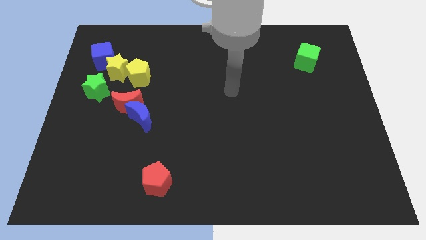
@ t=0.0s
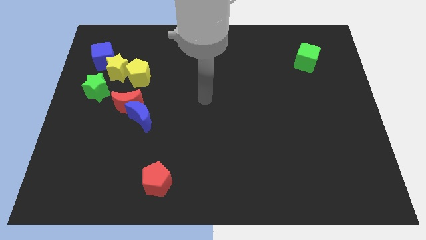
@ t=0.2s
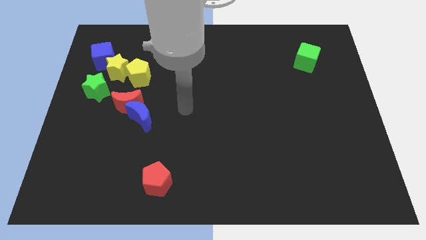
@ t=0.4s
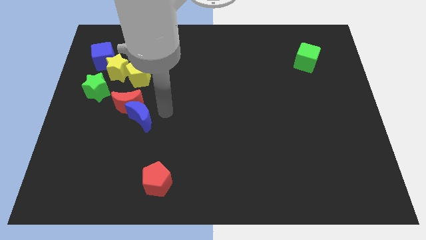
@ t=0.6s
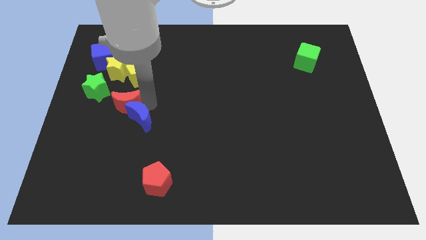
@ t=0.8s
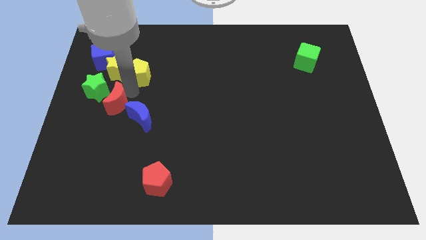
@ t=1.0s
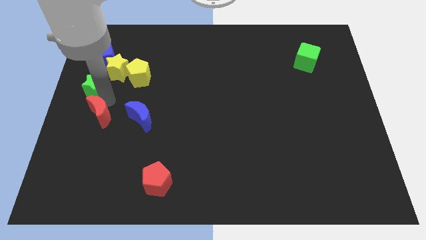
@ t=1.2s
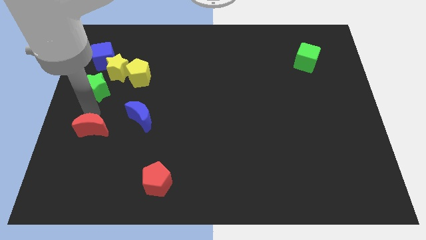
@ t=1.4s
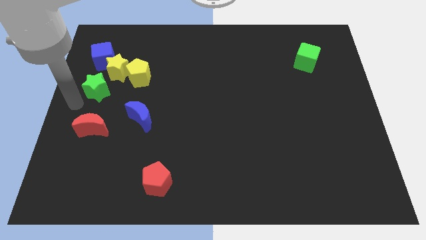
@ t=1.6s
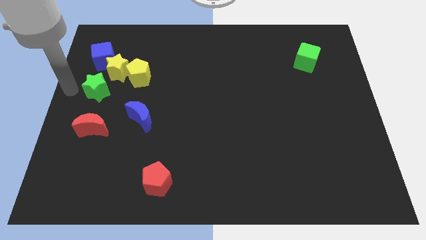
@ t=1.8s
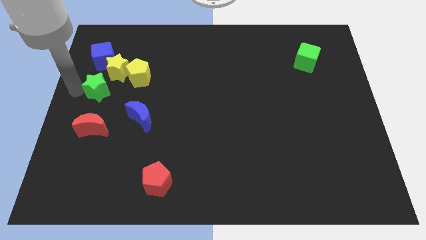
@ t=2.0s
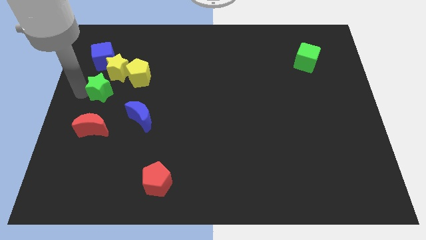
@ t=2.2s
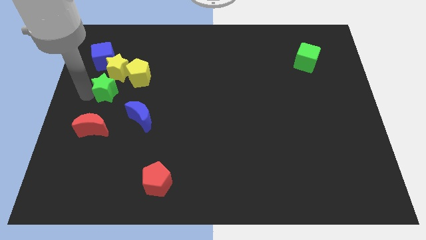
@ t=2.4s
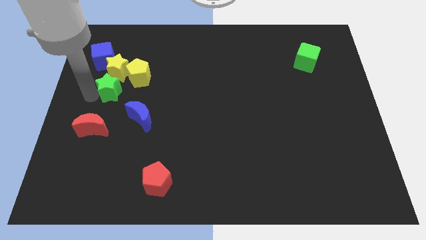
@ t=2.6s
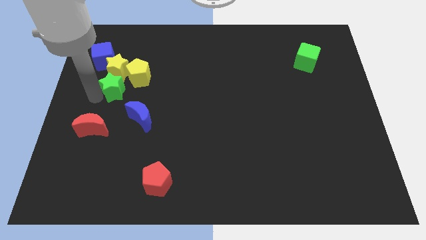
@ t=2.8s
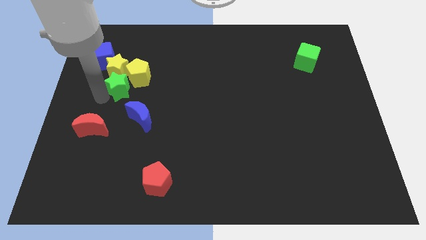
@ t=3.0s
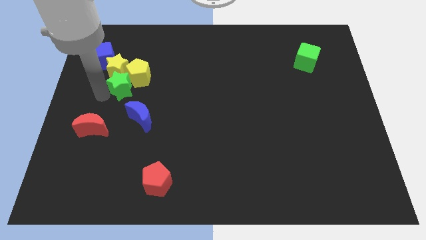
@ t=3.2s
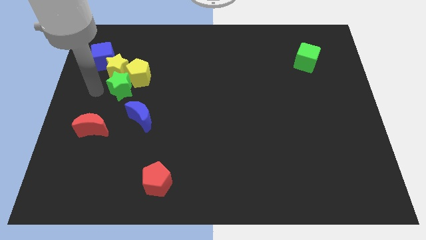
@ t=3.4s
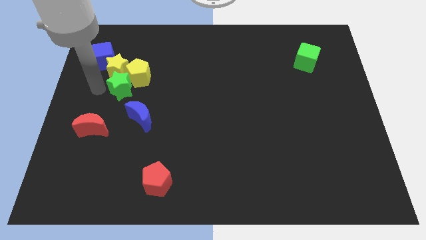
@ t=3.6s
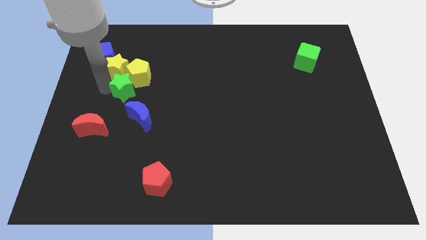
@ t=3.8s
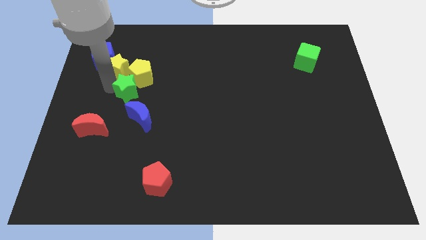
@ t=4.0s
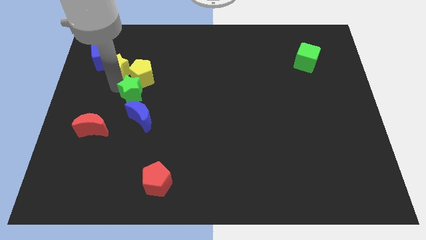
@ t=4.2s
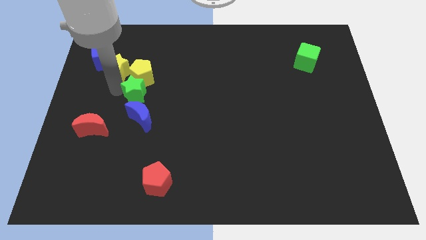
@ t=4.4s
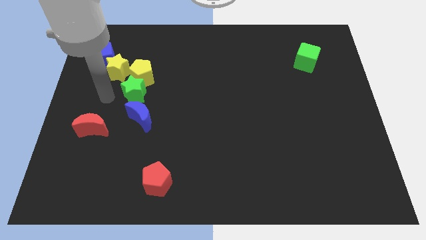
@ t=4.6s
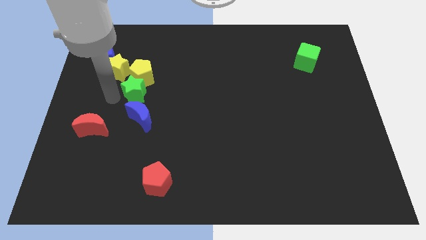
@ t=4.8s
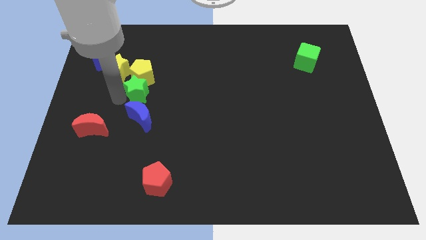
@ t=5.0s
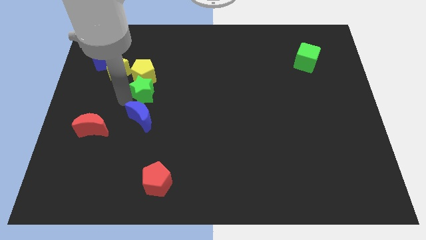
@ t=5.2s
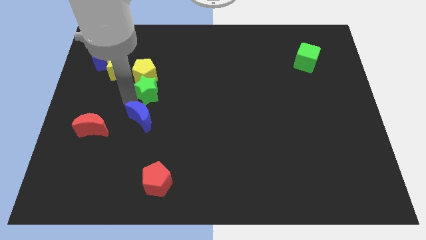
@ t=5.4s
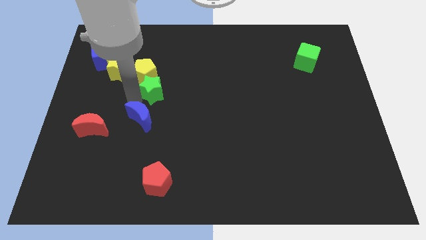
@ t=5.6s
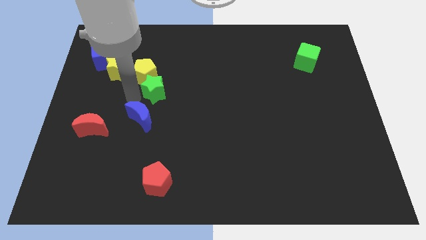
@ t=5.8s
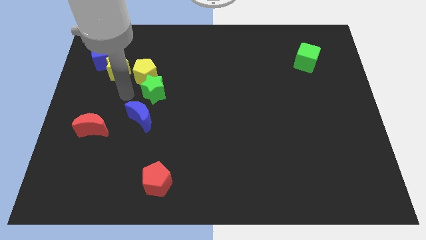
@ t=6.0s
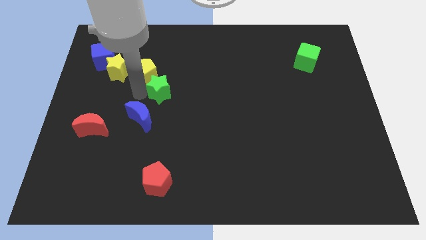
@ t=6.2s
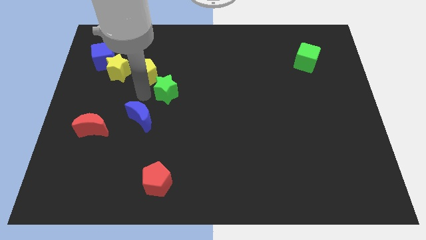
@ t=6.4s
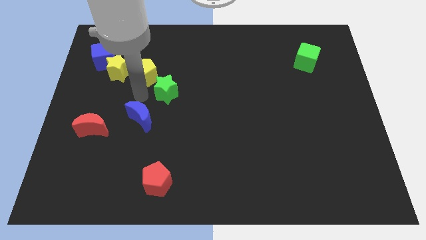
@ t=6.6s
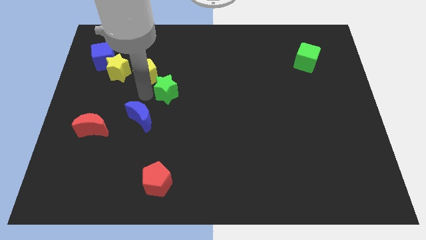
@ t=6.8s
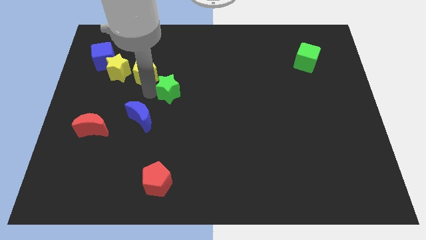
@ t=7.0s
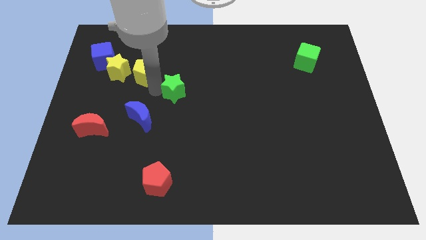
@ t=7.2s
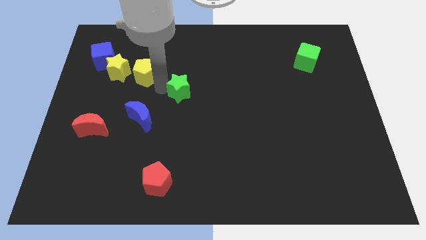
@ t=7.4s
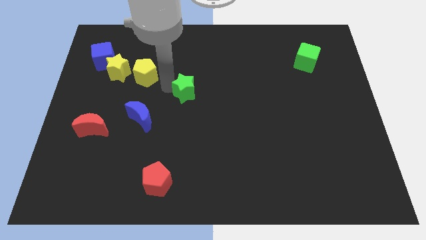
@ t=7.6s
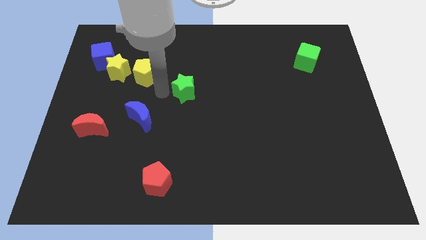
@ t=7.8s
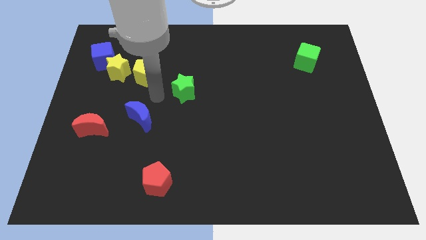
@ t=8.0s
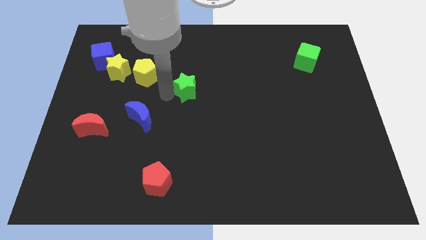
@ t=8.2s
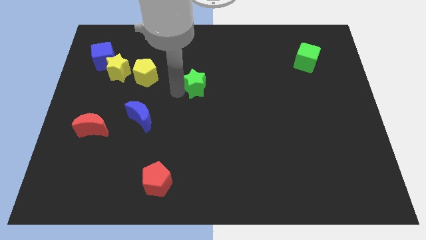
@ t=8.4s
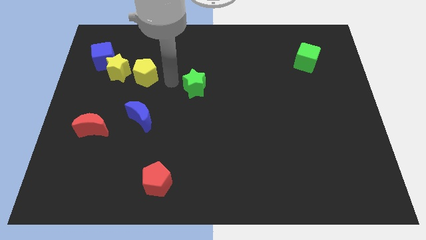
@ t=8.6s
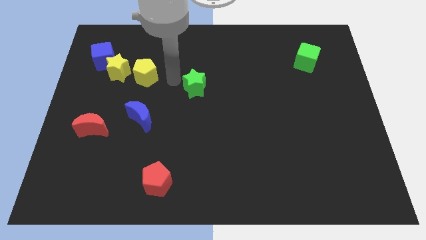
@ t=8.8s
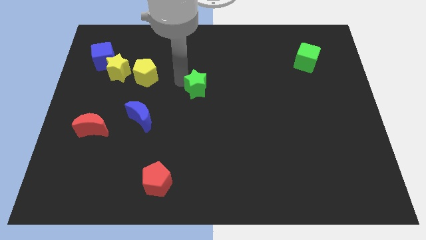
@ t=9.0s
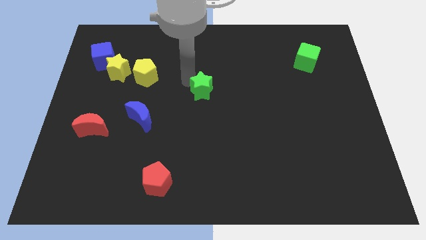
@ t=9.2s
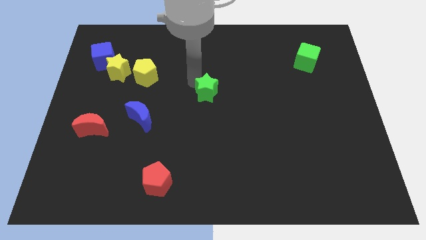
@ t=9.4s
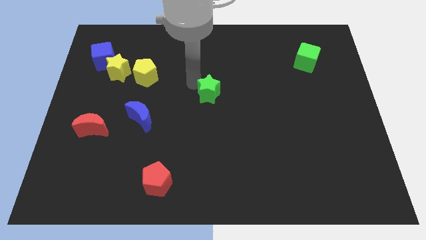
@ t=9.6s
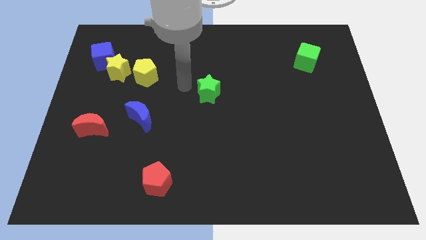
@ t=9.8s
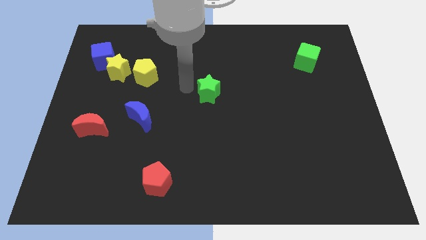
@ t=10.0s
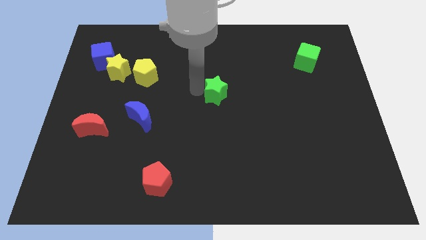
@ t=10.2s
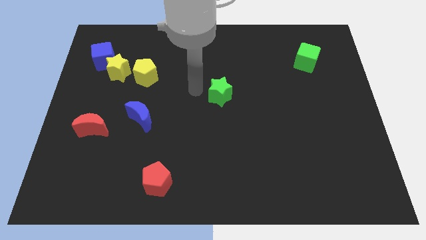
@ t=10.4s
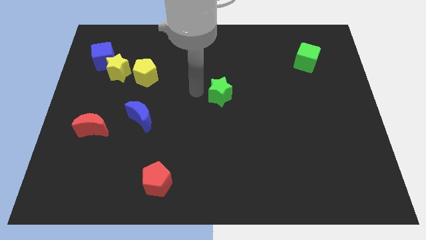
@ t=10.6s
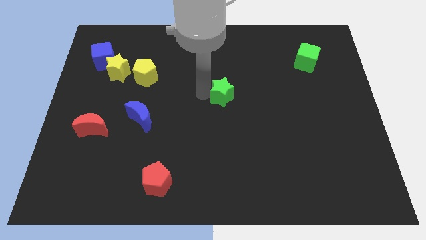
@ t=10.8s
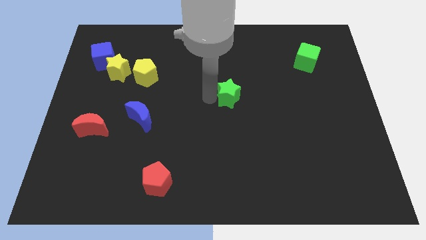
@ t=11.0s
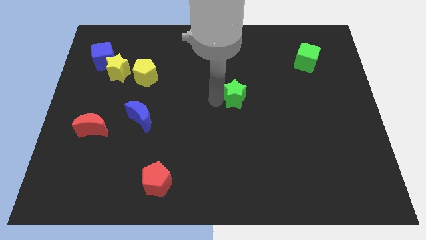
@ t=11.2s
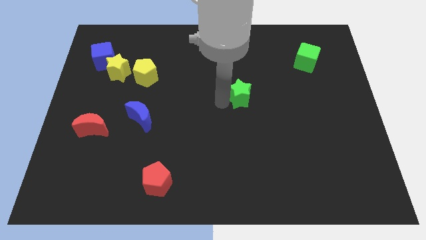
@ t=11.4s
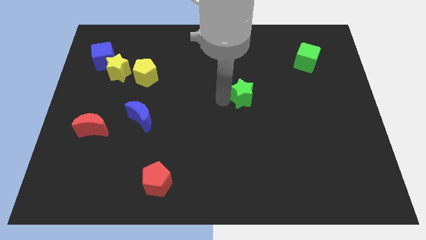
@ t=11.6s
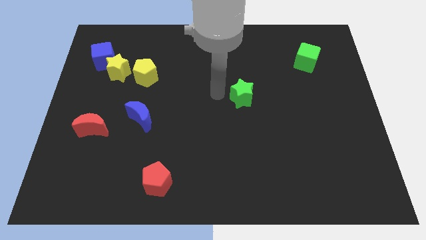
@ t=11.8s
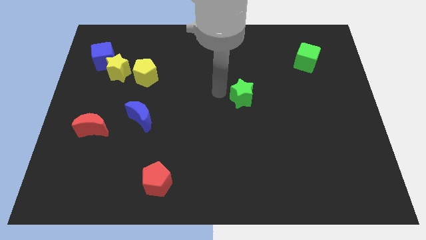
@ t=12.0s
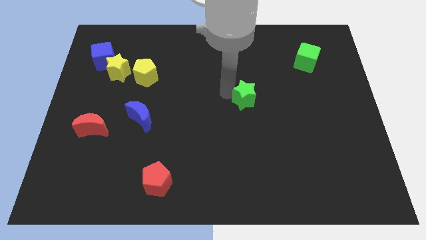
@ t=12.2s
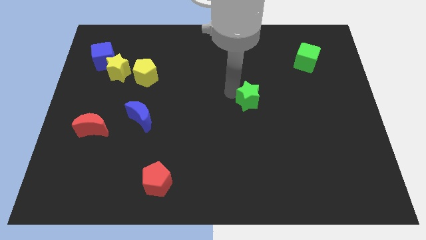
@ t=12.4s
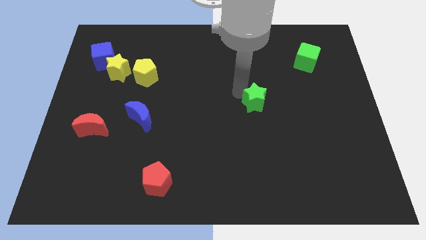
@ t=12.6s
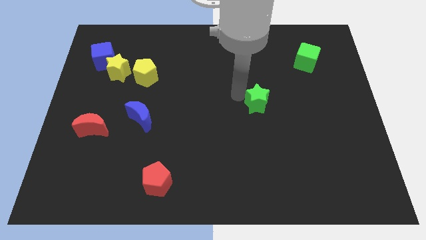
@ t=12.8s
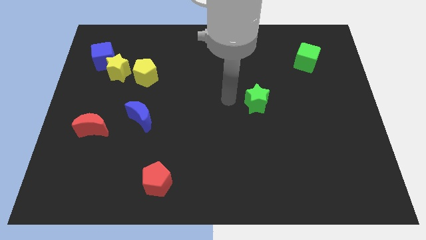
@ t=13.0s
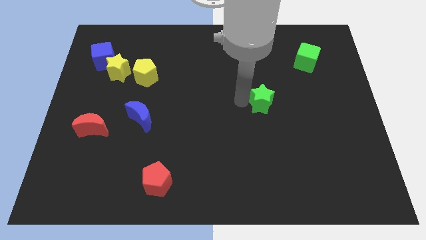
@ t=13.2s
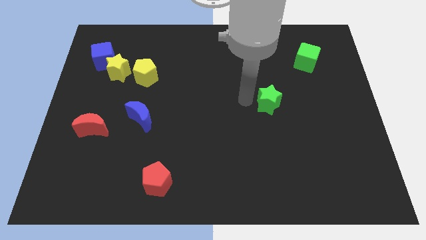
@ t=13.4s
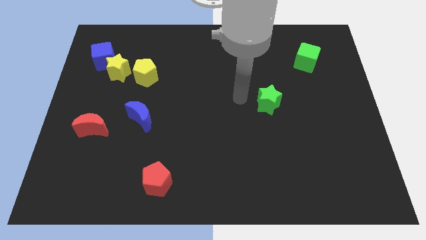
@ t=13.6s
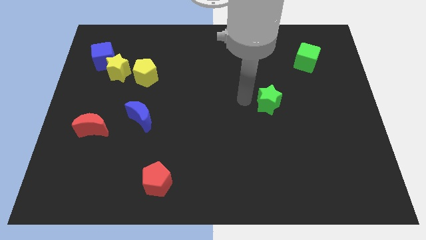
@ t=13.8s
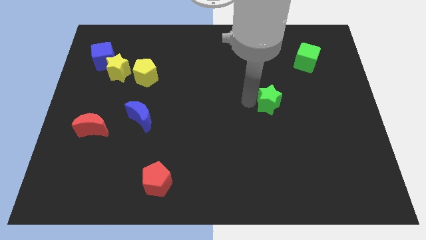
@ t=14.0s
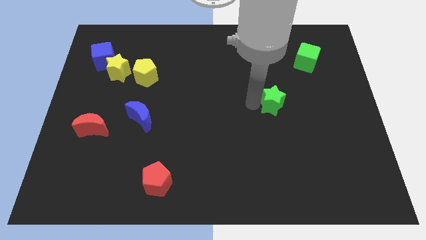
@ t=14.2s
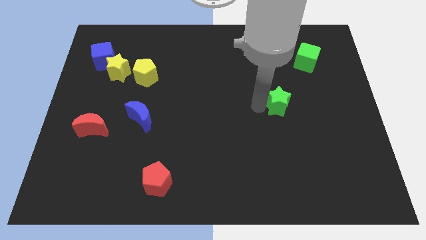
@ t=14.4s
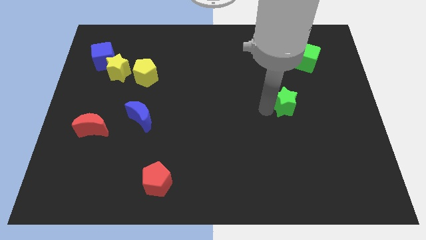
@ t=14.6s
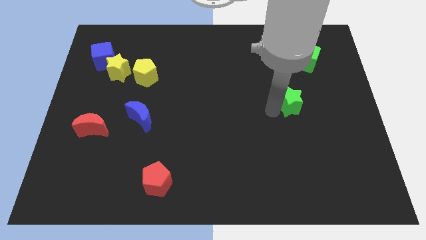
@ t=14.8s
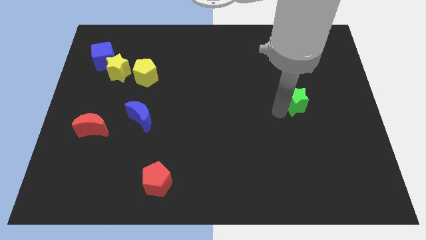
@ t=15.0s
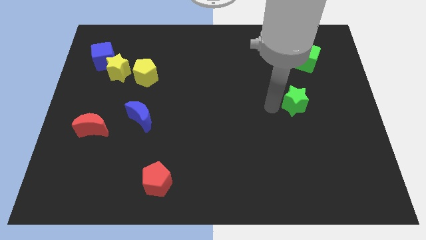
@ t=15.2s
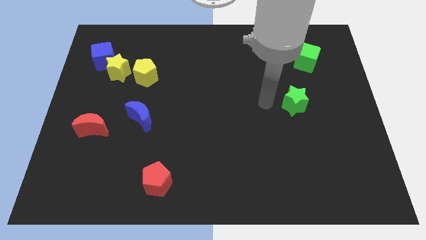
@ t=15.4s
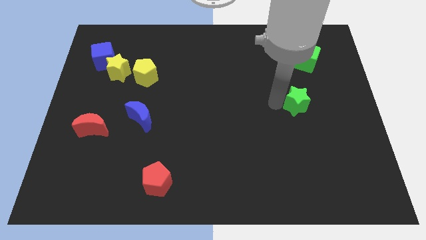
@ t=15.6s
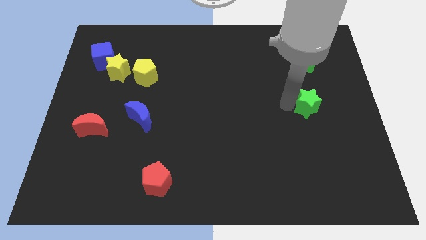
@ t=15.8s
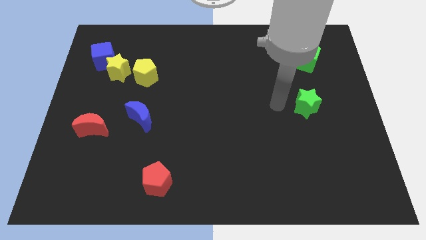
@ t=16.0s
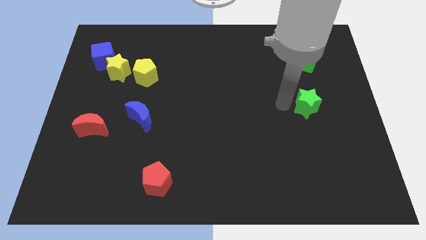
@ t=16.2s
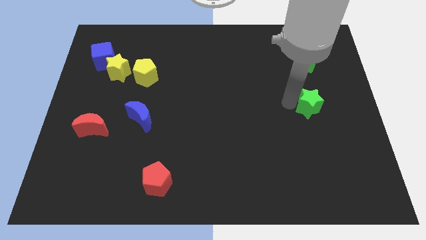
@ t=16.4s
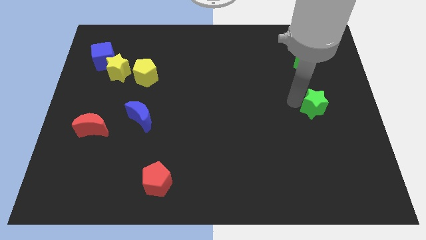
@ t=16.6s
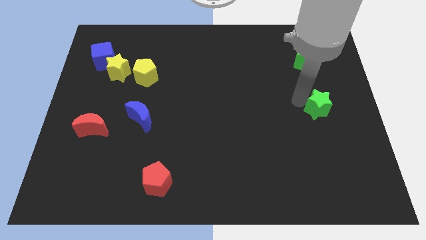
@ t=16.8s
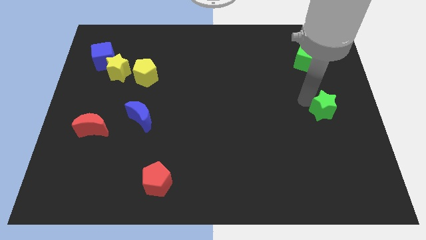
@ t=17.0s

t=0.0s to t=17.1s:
slide the green star to the right side
